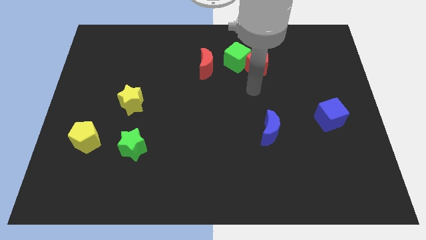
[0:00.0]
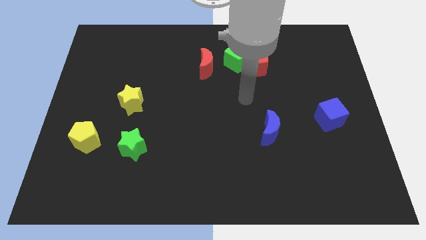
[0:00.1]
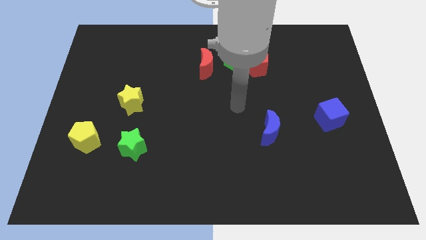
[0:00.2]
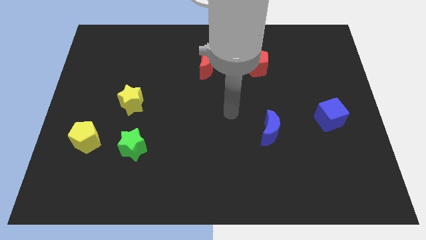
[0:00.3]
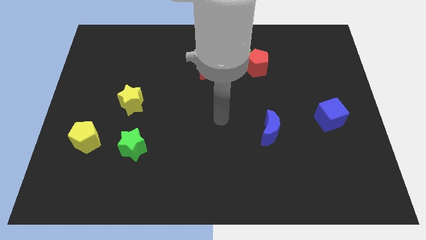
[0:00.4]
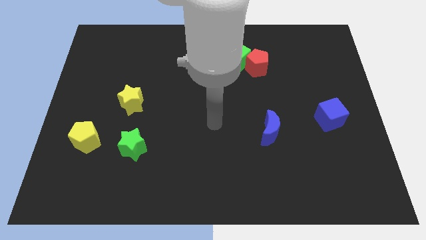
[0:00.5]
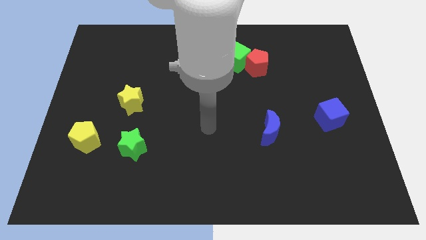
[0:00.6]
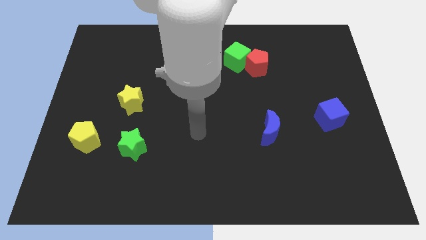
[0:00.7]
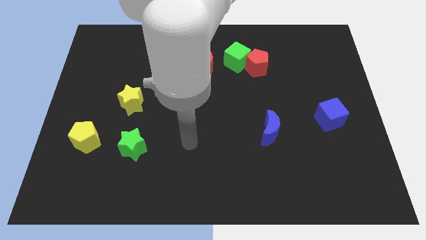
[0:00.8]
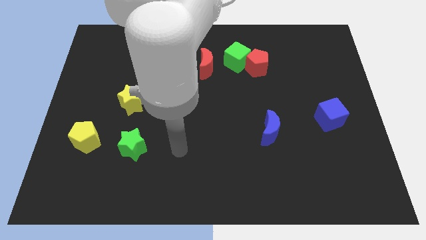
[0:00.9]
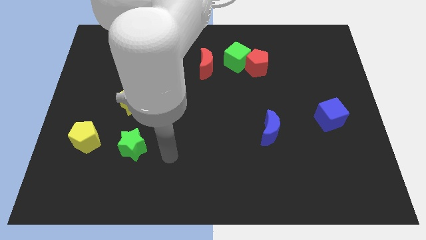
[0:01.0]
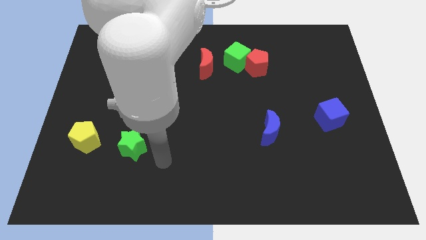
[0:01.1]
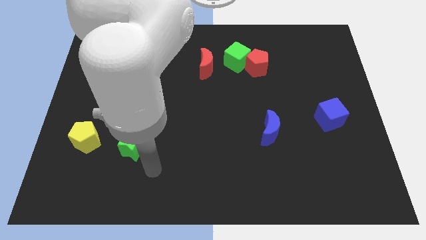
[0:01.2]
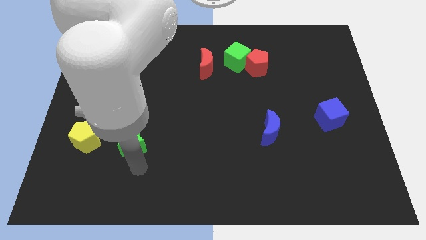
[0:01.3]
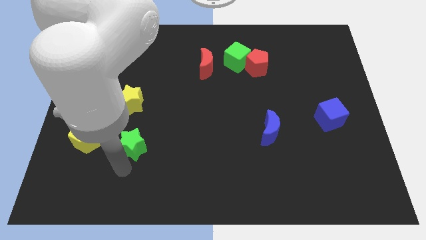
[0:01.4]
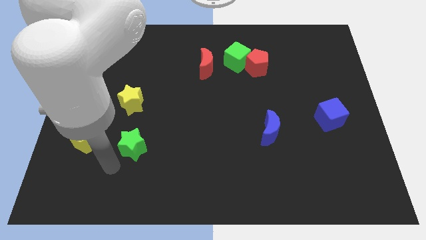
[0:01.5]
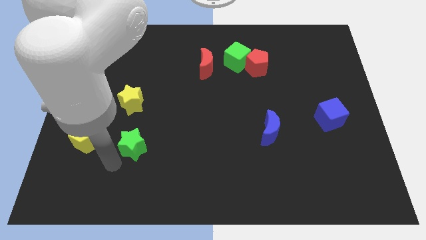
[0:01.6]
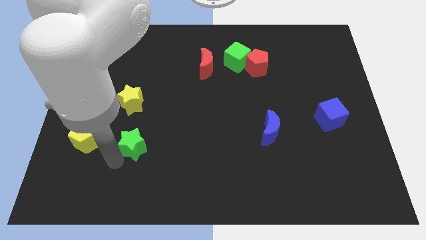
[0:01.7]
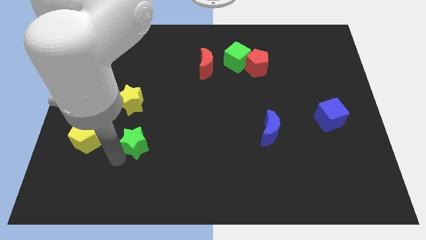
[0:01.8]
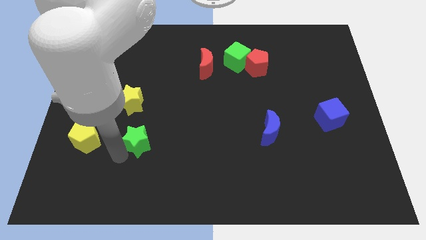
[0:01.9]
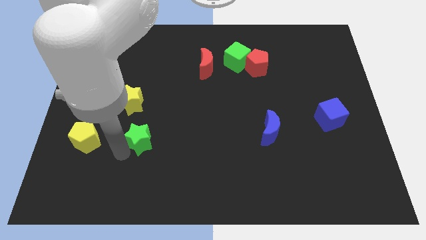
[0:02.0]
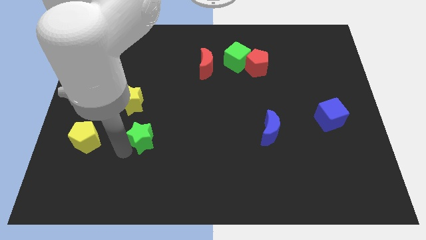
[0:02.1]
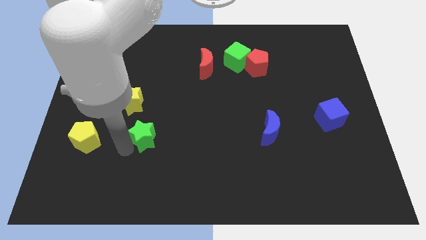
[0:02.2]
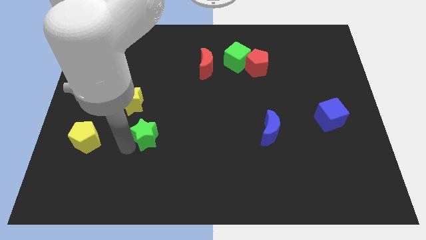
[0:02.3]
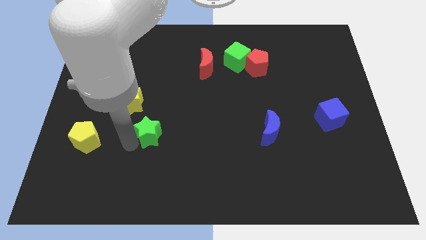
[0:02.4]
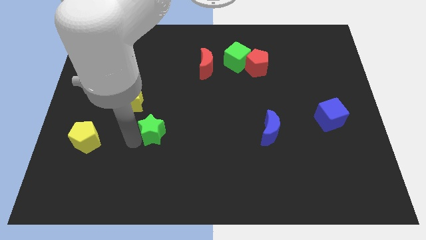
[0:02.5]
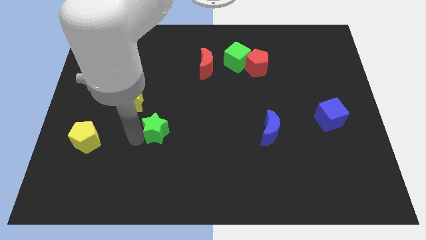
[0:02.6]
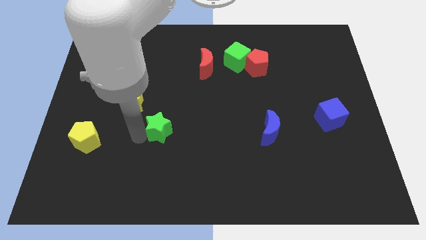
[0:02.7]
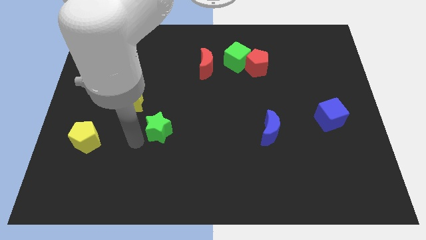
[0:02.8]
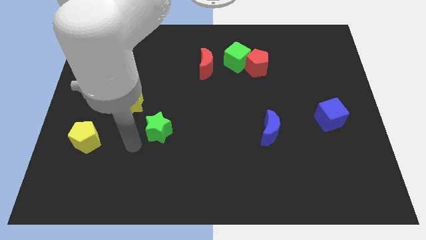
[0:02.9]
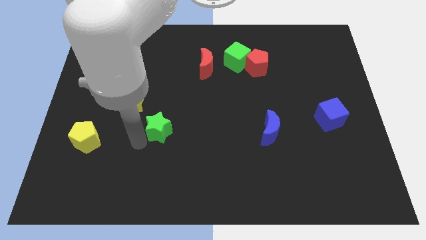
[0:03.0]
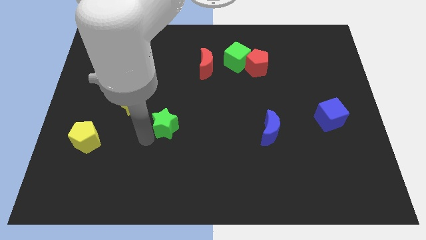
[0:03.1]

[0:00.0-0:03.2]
slide the green star a little up and to the right diagonally

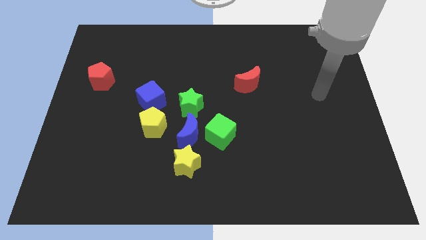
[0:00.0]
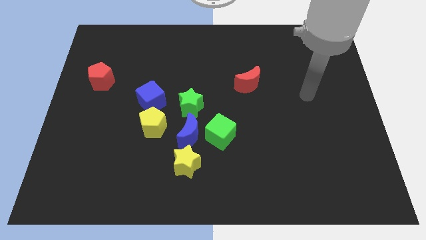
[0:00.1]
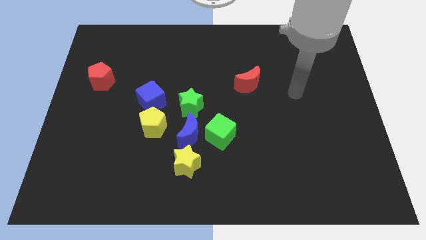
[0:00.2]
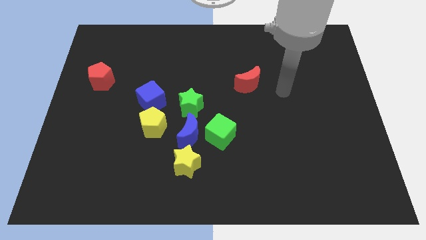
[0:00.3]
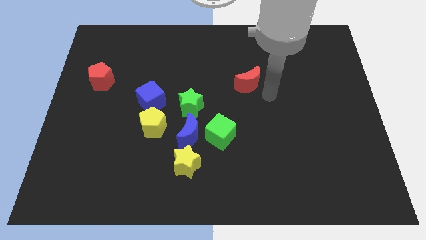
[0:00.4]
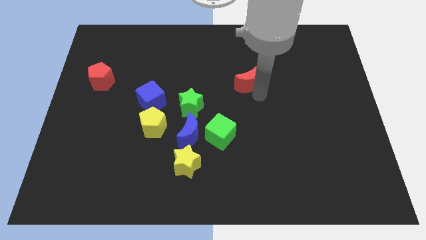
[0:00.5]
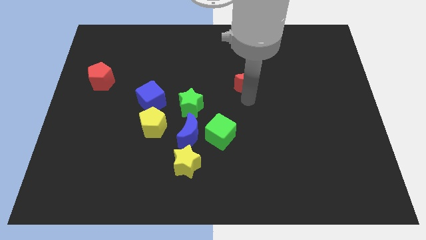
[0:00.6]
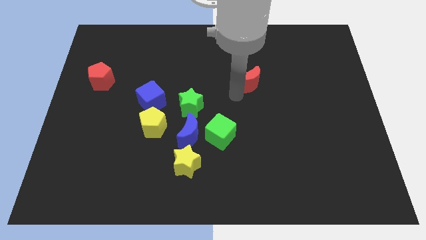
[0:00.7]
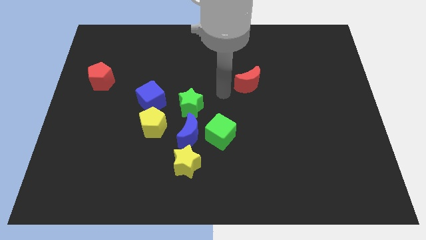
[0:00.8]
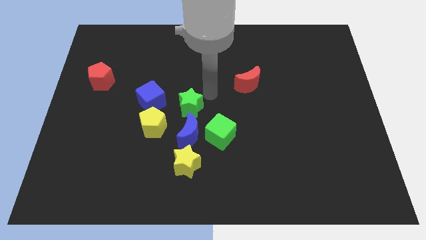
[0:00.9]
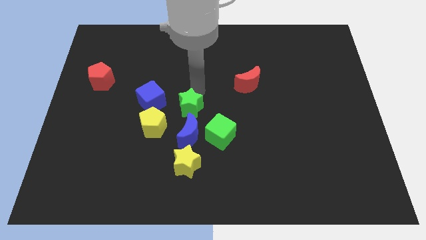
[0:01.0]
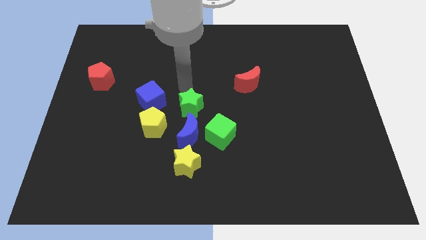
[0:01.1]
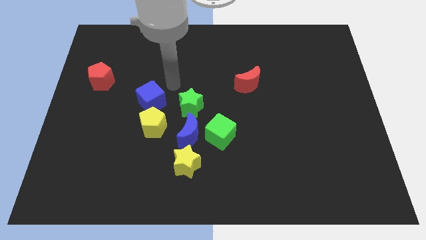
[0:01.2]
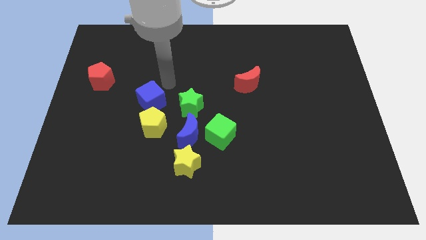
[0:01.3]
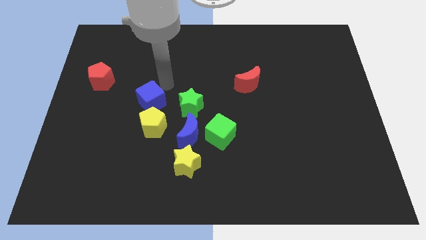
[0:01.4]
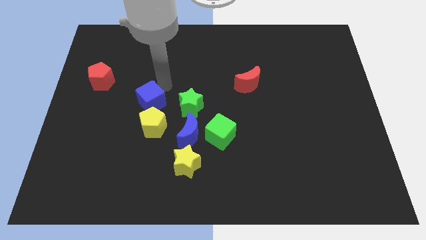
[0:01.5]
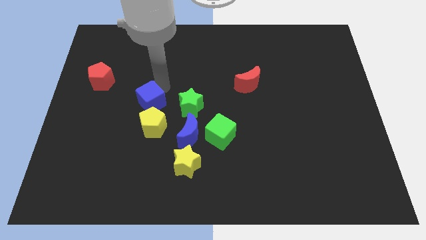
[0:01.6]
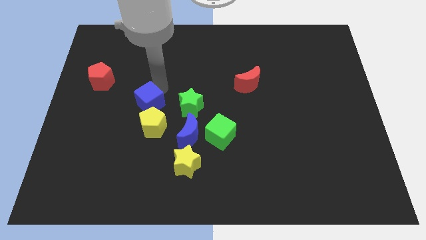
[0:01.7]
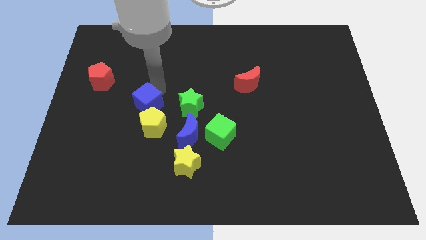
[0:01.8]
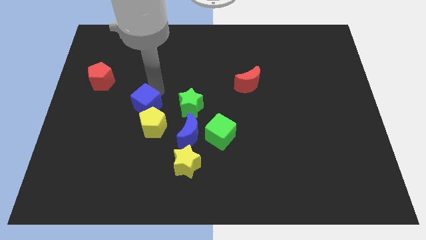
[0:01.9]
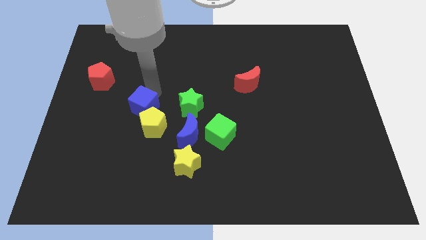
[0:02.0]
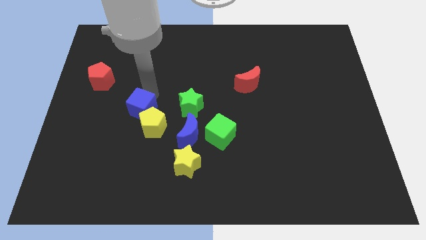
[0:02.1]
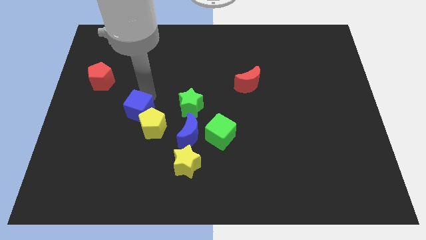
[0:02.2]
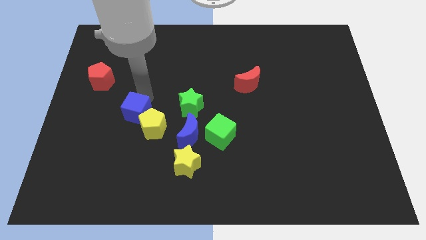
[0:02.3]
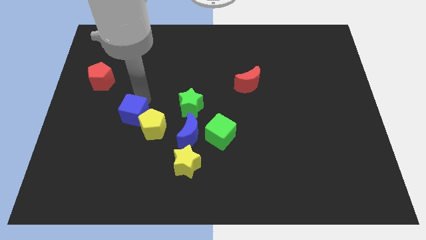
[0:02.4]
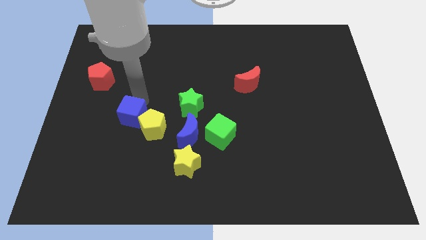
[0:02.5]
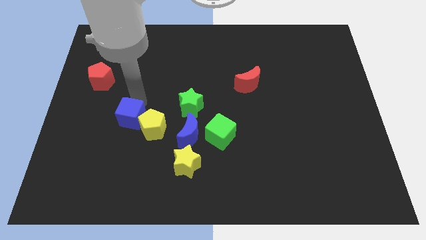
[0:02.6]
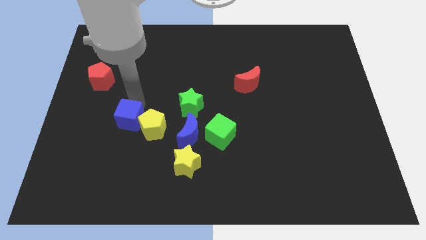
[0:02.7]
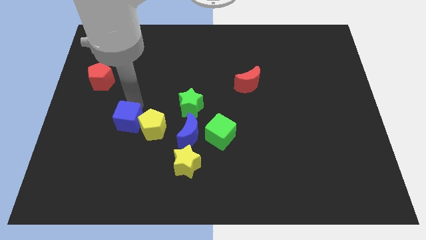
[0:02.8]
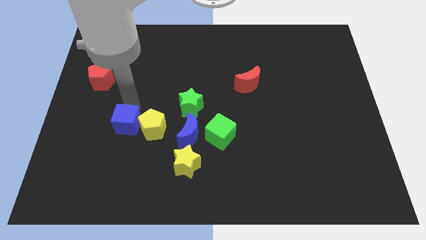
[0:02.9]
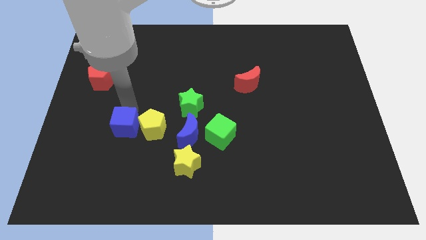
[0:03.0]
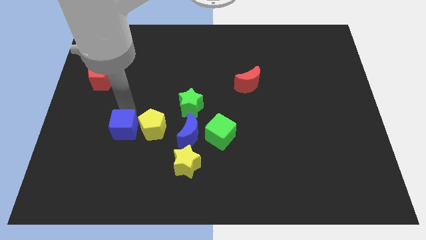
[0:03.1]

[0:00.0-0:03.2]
slide the blue cube a bit downwards

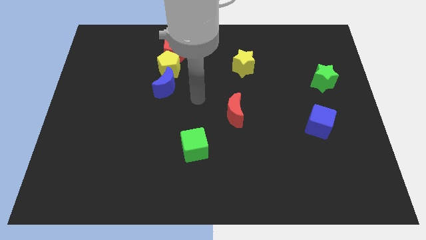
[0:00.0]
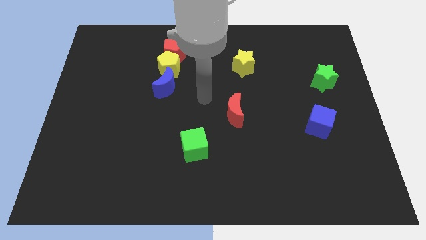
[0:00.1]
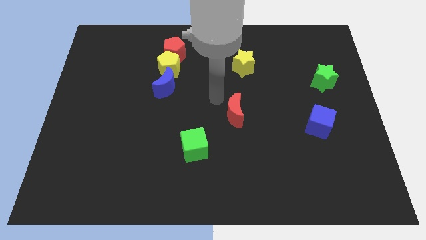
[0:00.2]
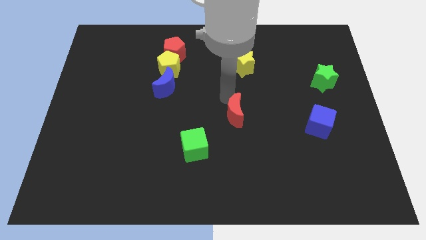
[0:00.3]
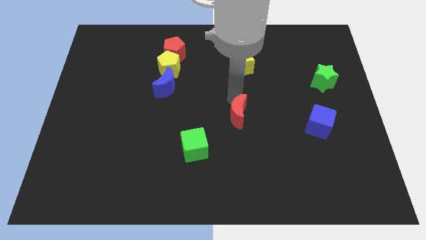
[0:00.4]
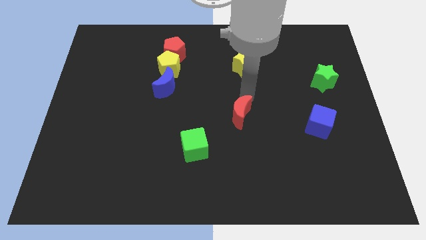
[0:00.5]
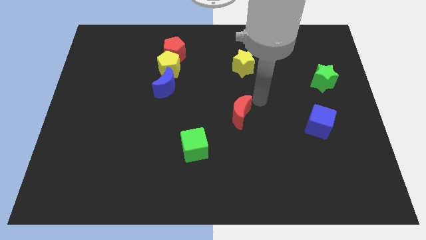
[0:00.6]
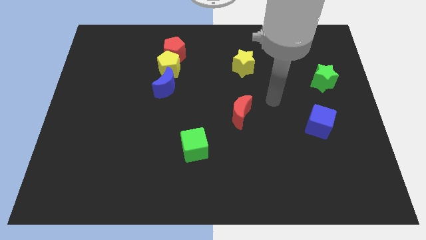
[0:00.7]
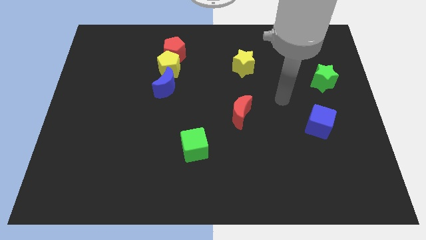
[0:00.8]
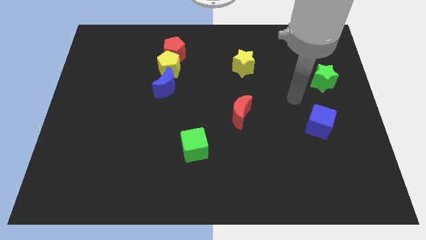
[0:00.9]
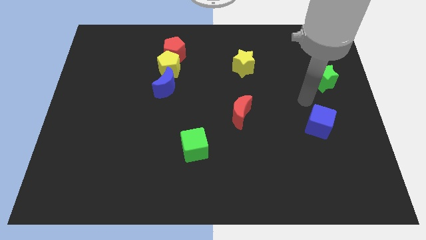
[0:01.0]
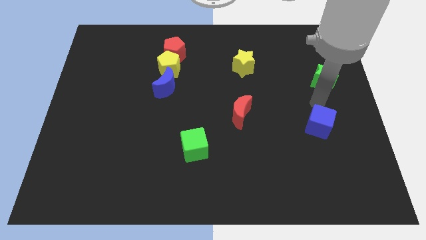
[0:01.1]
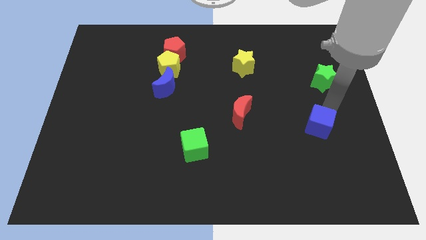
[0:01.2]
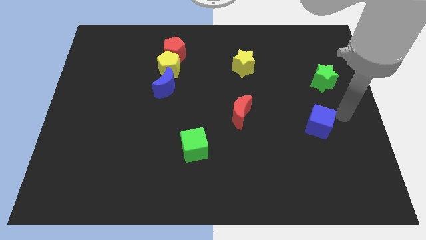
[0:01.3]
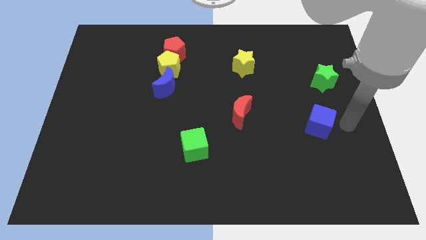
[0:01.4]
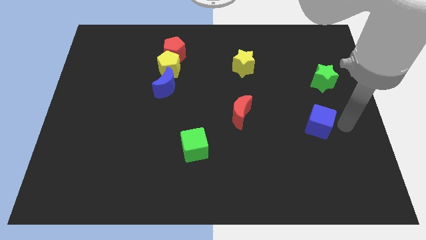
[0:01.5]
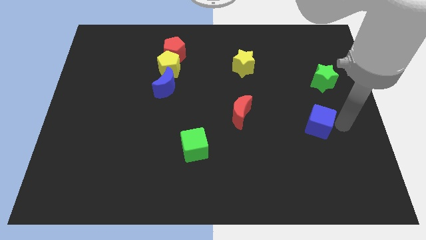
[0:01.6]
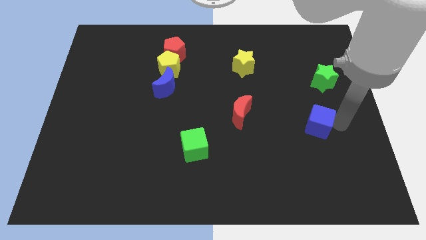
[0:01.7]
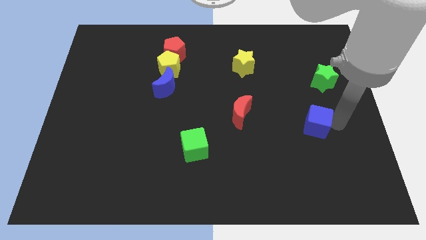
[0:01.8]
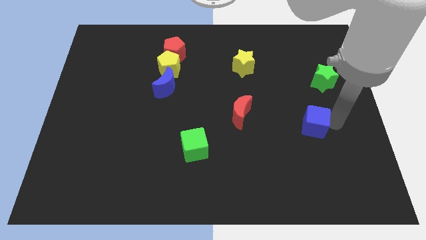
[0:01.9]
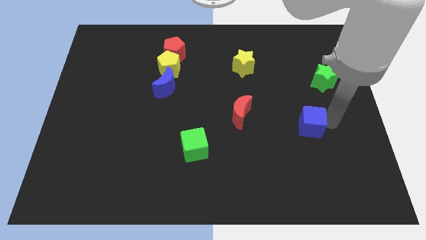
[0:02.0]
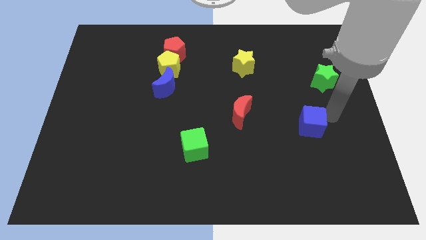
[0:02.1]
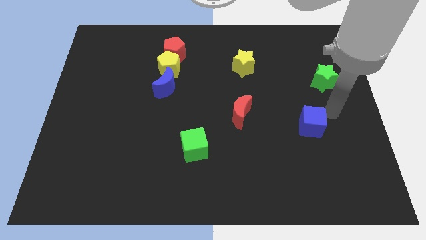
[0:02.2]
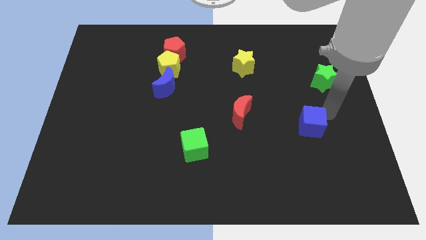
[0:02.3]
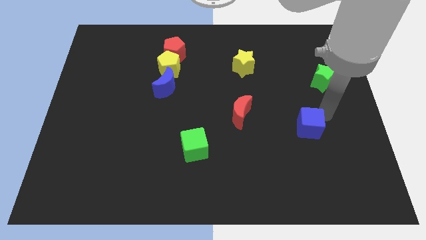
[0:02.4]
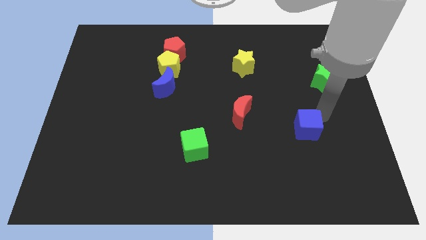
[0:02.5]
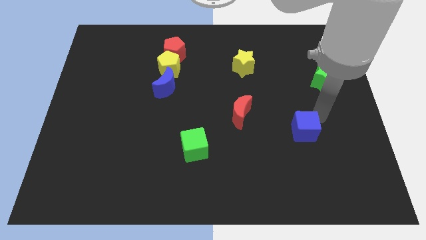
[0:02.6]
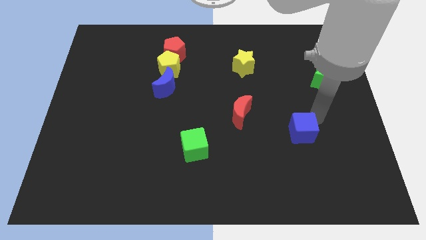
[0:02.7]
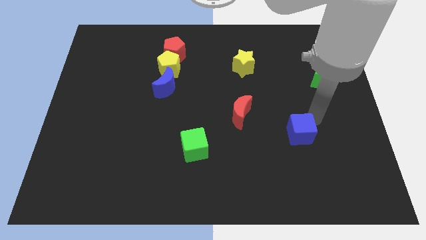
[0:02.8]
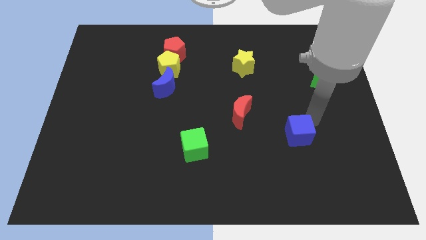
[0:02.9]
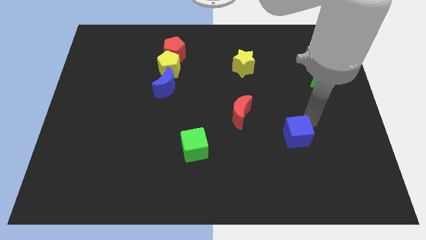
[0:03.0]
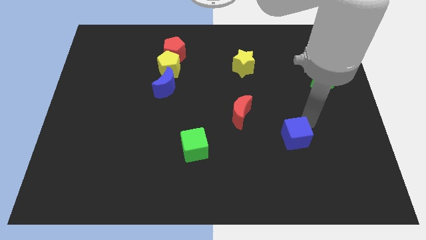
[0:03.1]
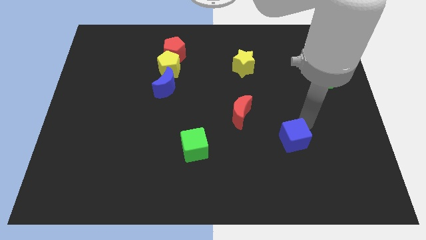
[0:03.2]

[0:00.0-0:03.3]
slide the blue cube downwards and left diagonally somewhat
